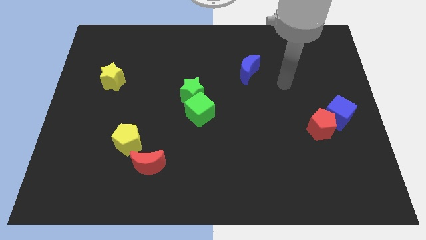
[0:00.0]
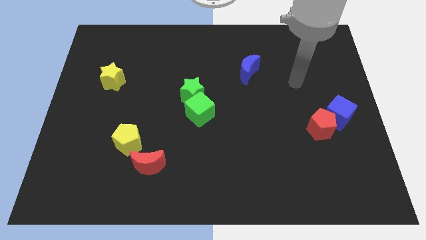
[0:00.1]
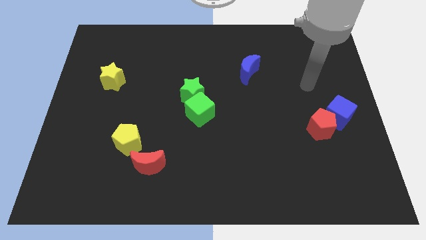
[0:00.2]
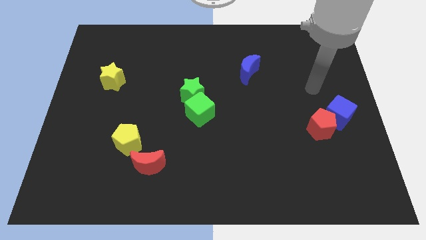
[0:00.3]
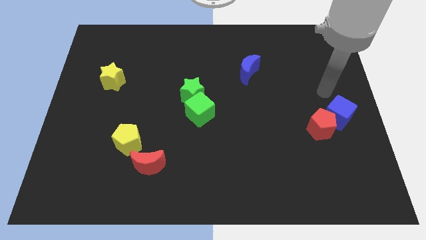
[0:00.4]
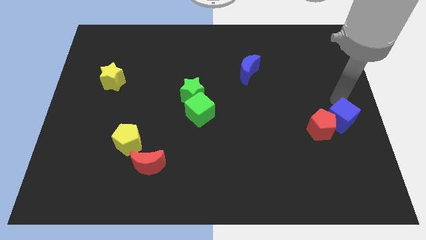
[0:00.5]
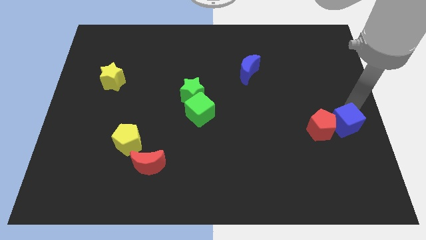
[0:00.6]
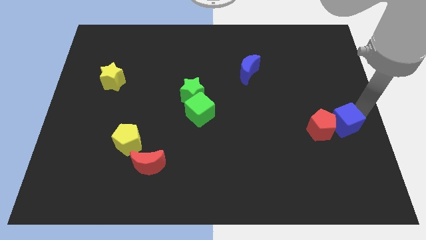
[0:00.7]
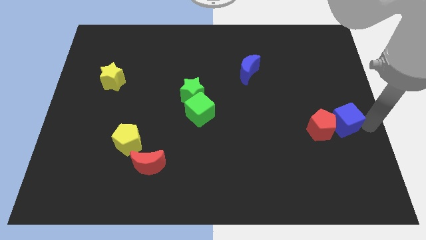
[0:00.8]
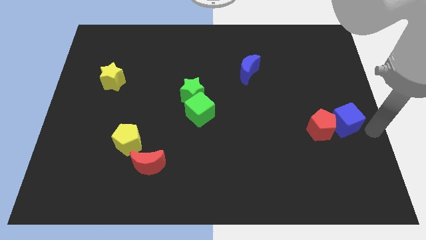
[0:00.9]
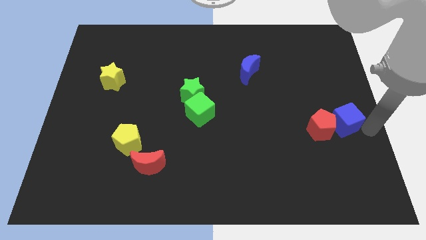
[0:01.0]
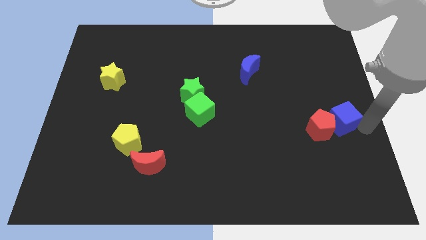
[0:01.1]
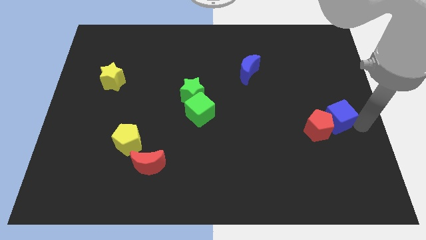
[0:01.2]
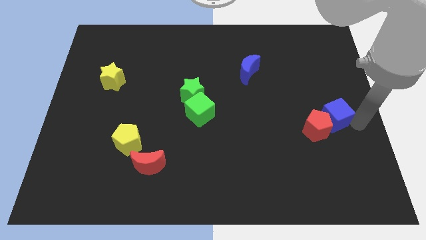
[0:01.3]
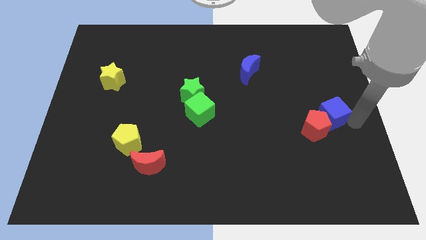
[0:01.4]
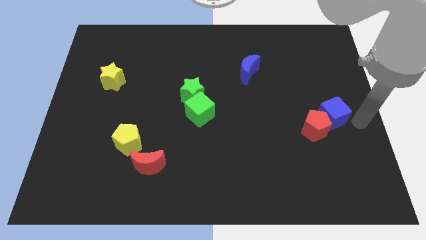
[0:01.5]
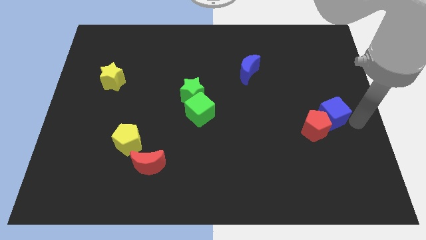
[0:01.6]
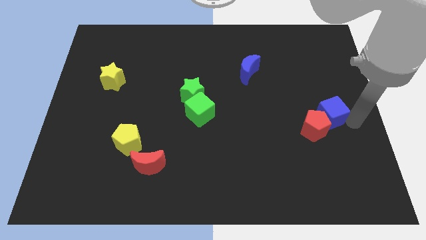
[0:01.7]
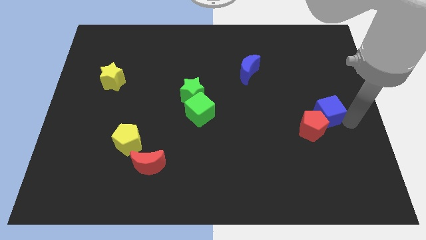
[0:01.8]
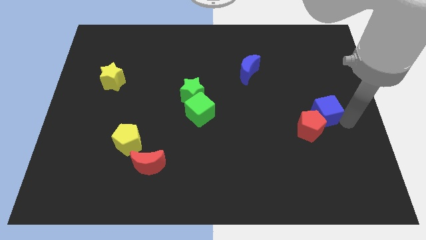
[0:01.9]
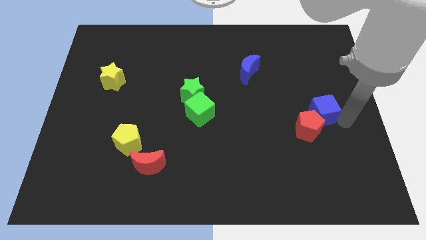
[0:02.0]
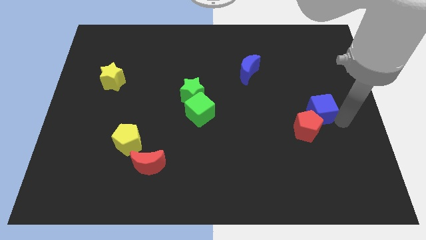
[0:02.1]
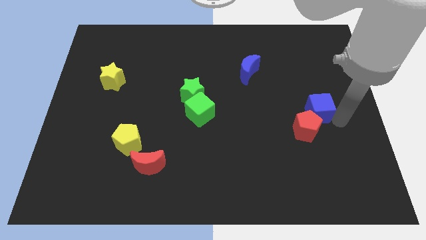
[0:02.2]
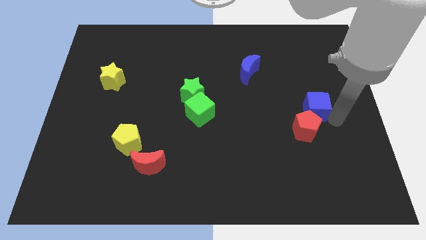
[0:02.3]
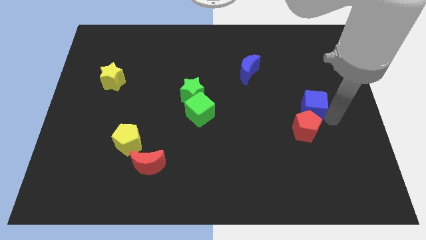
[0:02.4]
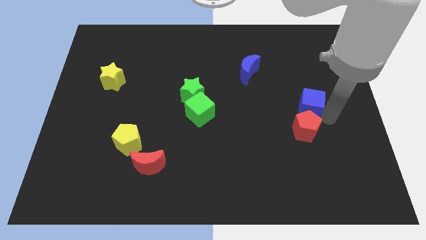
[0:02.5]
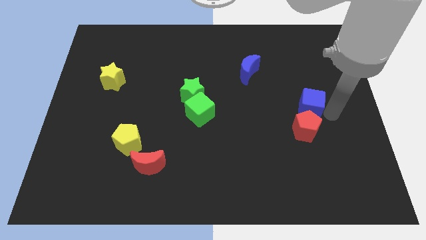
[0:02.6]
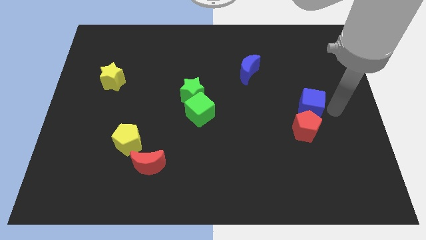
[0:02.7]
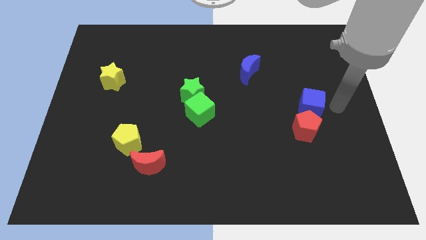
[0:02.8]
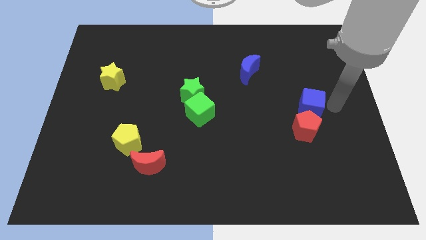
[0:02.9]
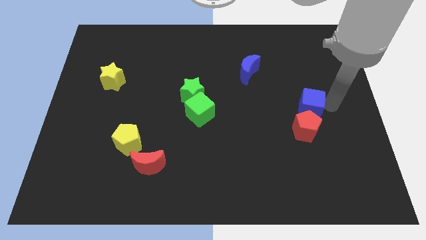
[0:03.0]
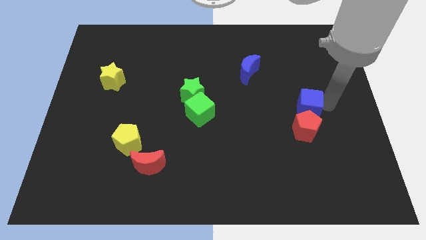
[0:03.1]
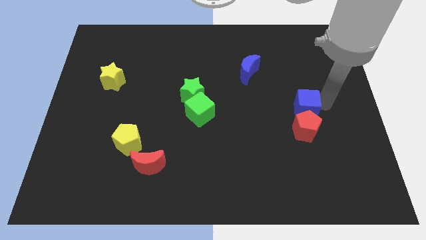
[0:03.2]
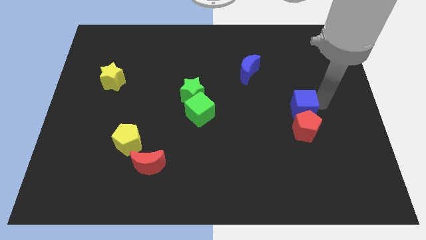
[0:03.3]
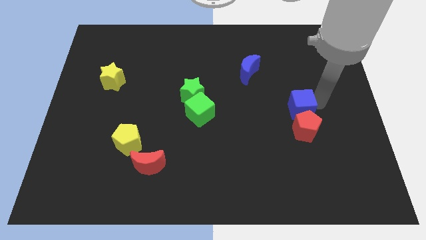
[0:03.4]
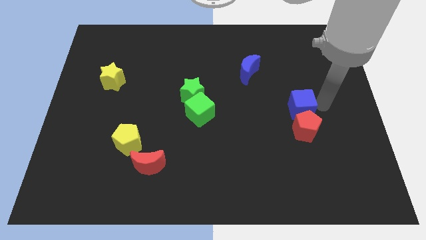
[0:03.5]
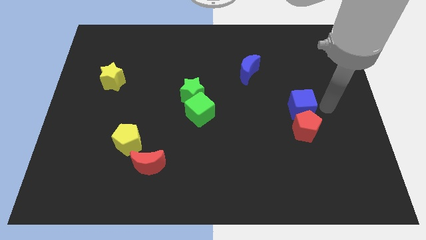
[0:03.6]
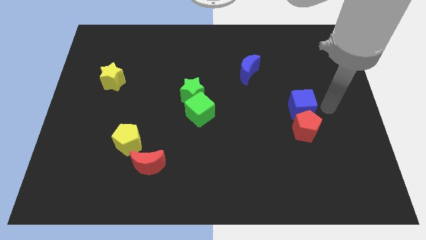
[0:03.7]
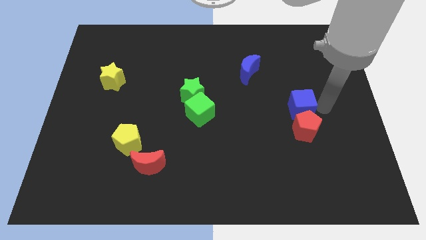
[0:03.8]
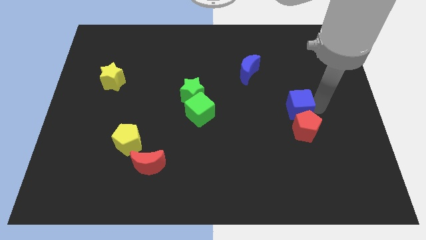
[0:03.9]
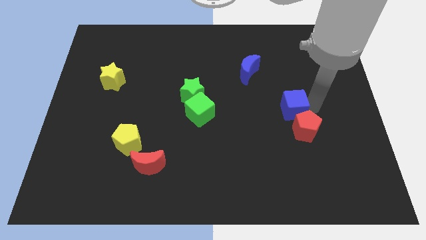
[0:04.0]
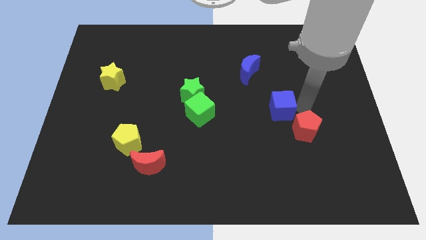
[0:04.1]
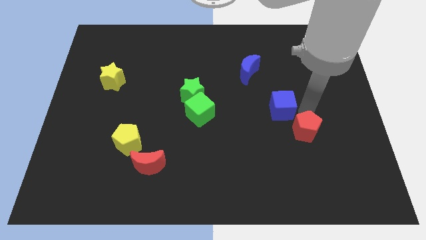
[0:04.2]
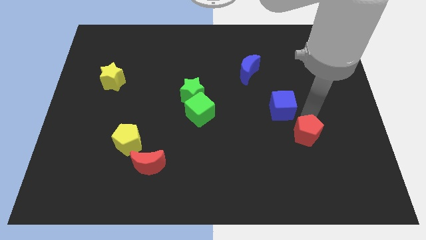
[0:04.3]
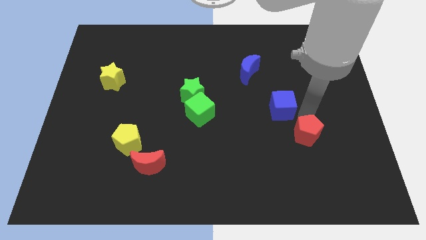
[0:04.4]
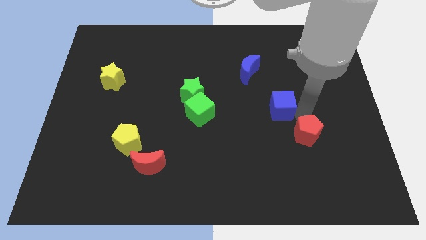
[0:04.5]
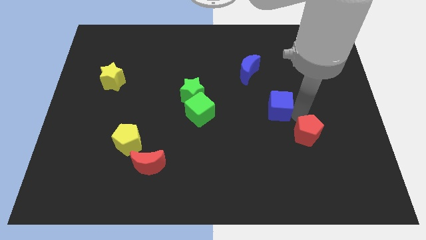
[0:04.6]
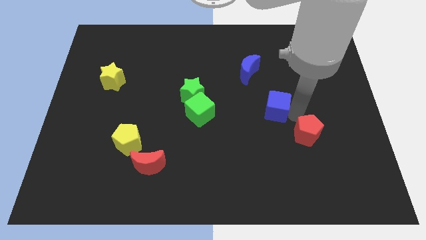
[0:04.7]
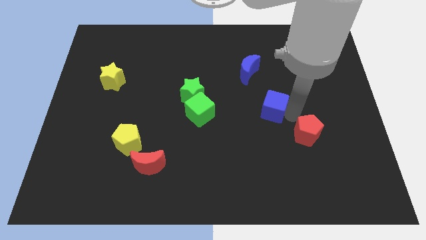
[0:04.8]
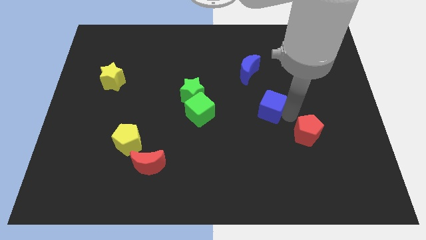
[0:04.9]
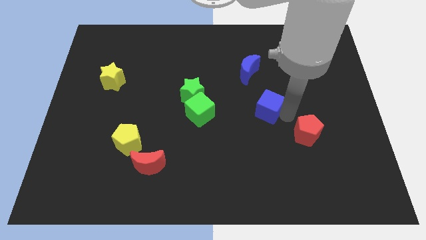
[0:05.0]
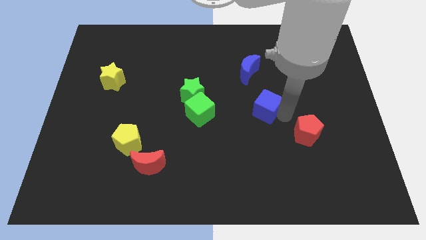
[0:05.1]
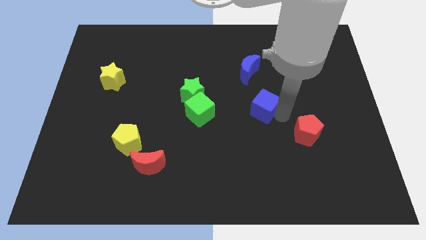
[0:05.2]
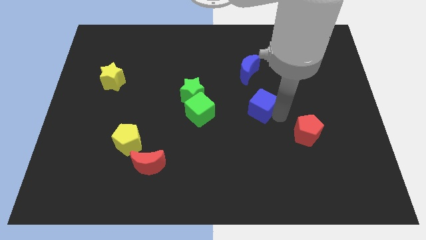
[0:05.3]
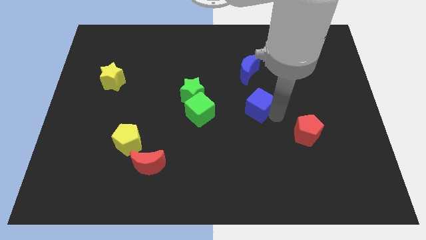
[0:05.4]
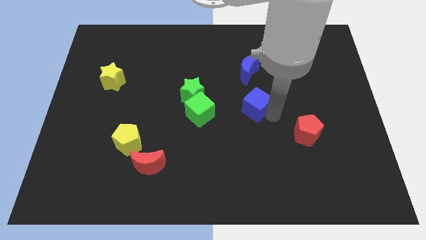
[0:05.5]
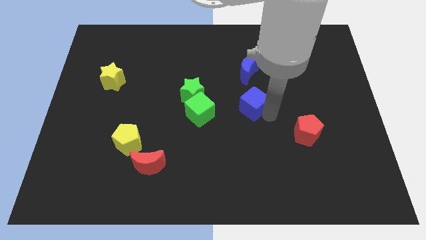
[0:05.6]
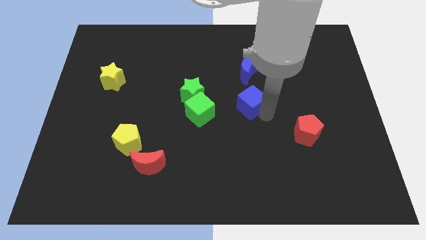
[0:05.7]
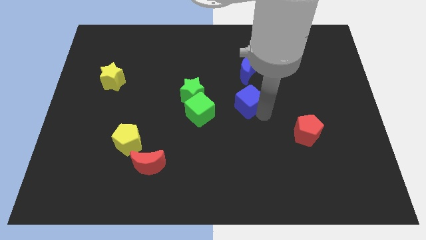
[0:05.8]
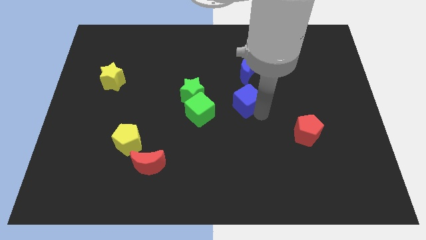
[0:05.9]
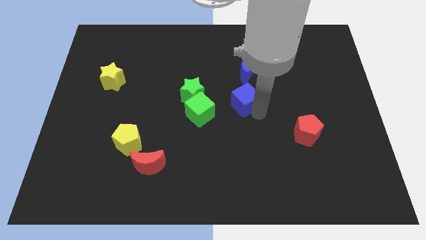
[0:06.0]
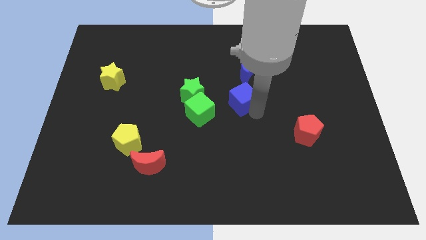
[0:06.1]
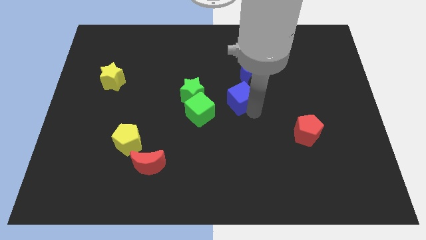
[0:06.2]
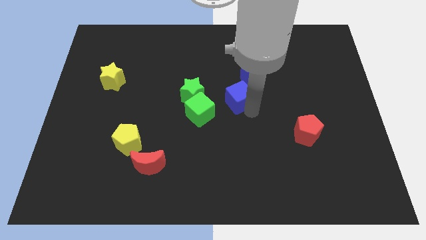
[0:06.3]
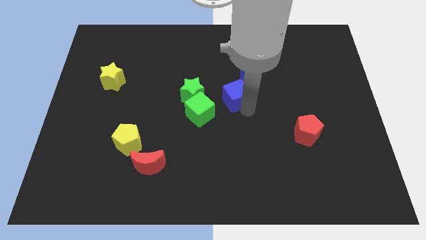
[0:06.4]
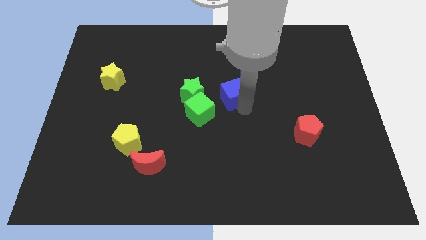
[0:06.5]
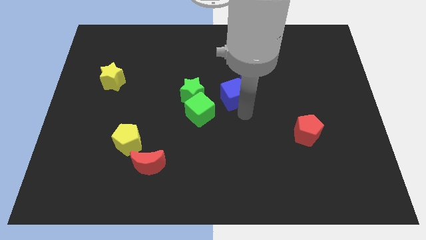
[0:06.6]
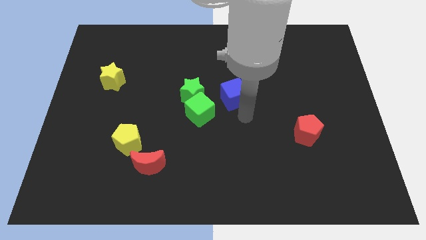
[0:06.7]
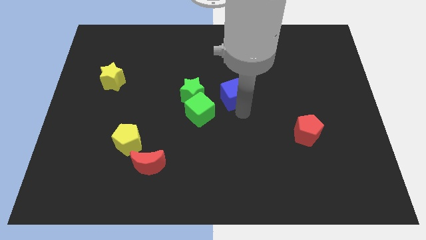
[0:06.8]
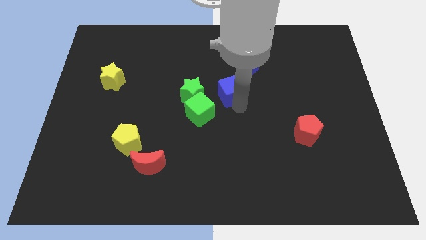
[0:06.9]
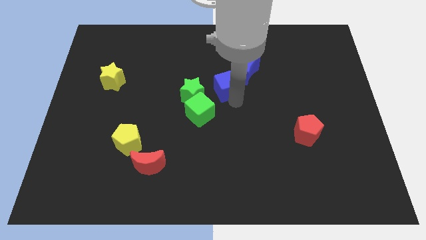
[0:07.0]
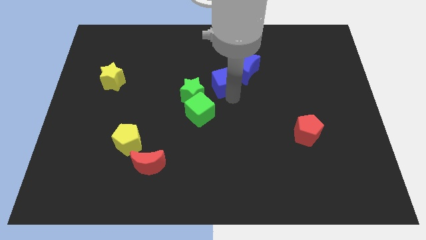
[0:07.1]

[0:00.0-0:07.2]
push the blue cube left of the blue moon

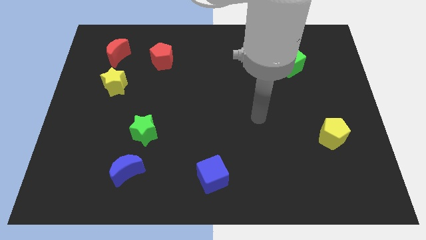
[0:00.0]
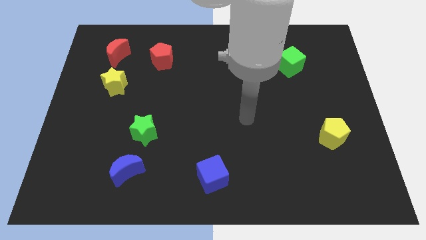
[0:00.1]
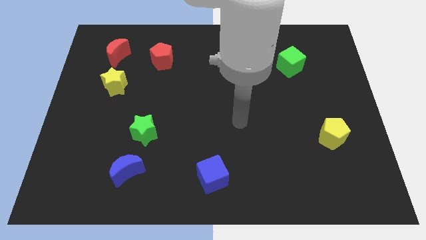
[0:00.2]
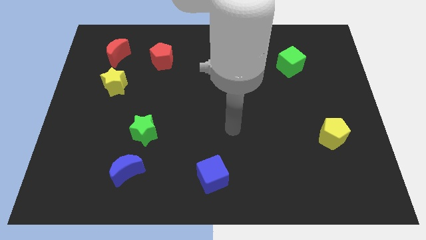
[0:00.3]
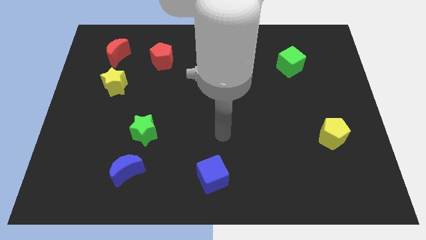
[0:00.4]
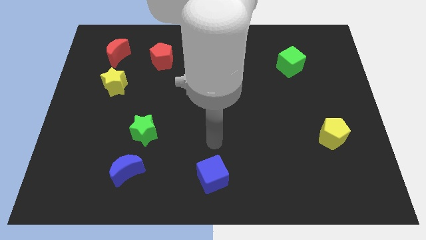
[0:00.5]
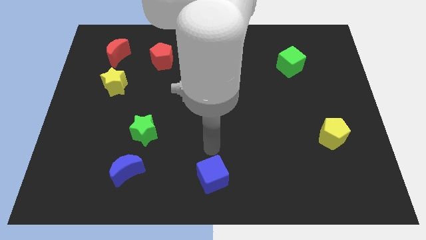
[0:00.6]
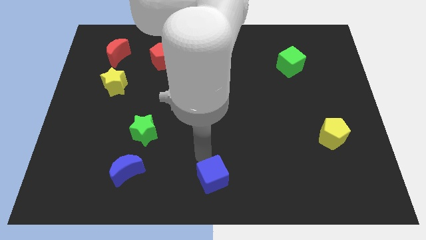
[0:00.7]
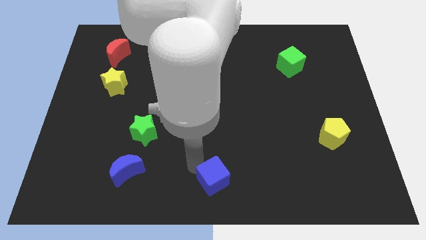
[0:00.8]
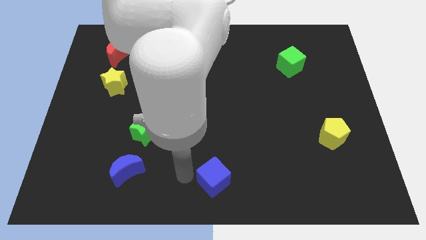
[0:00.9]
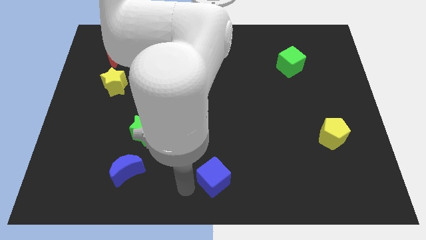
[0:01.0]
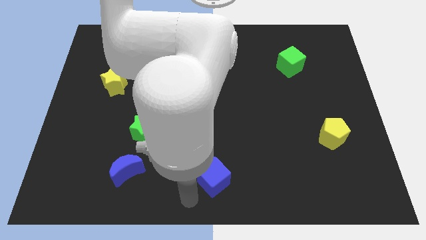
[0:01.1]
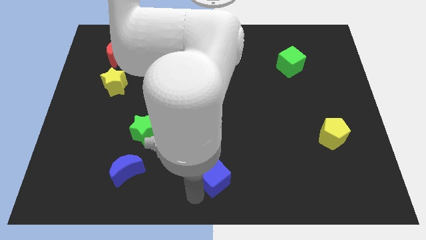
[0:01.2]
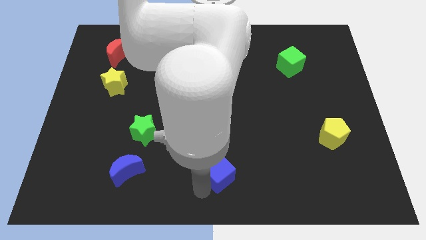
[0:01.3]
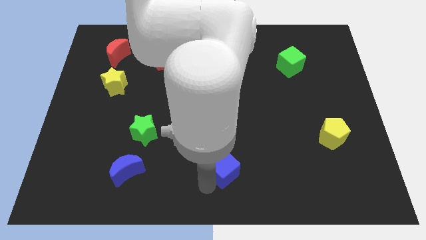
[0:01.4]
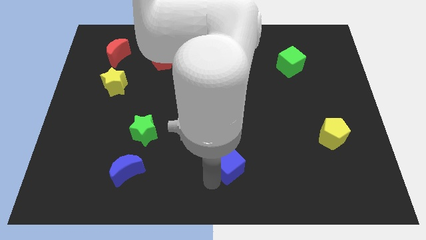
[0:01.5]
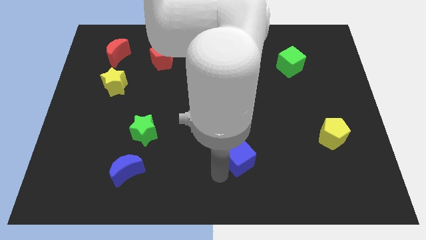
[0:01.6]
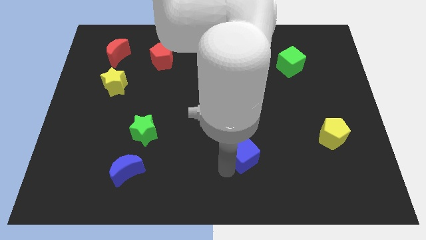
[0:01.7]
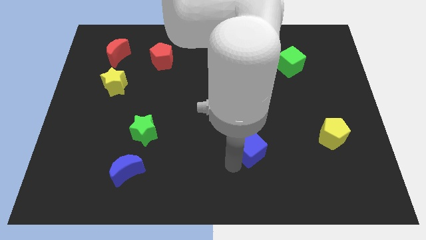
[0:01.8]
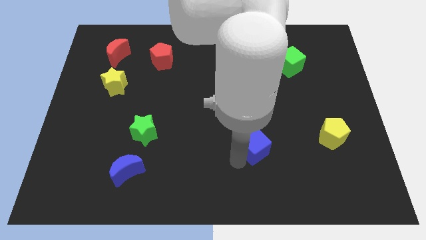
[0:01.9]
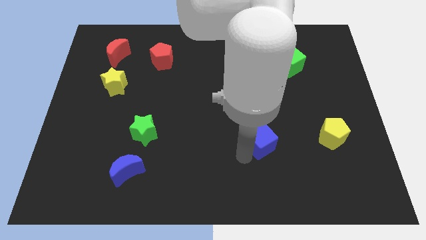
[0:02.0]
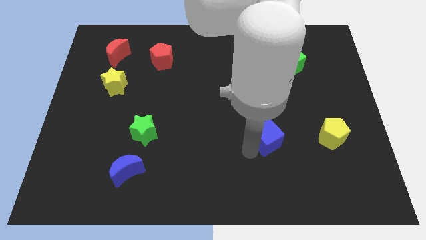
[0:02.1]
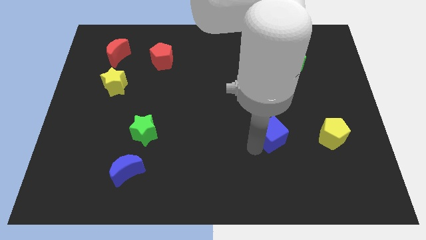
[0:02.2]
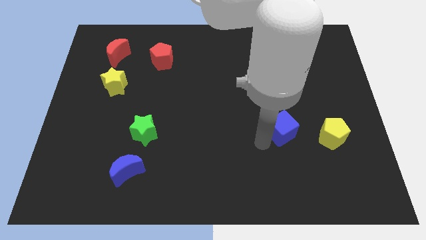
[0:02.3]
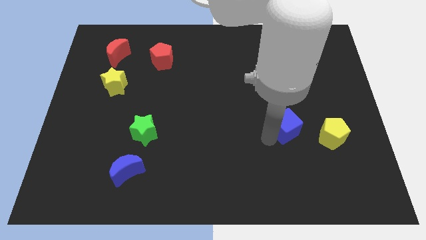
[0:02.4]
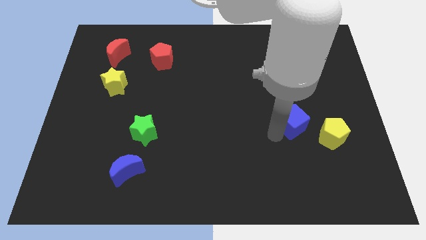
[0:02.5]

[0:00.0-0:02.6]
push the blue cube to the top left side of the yellow pentagon
